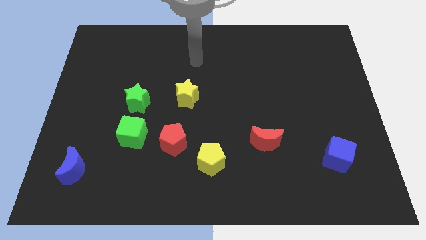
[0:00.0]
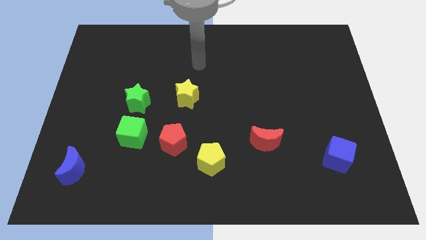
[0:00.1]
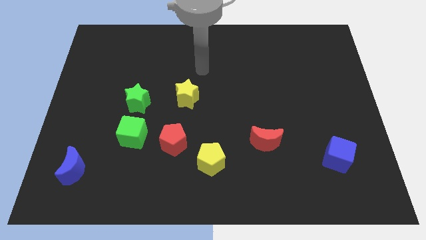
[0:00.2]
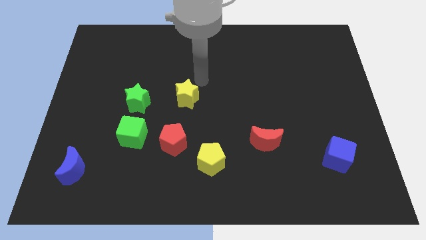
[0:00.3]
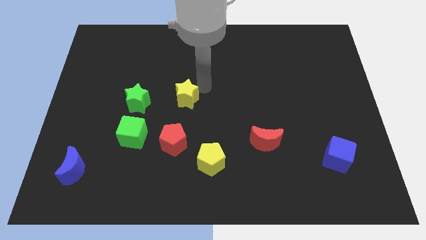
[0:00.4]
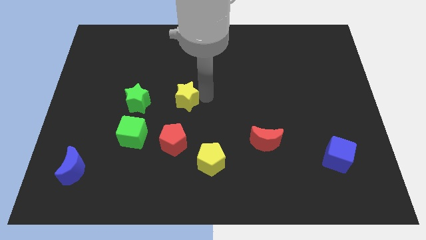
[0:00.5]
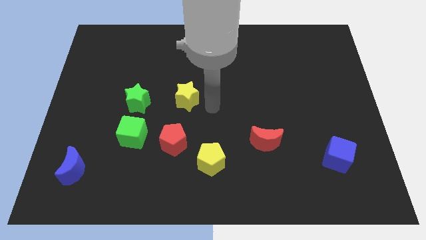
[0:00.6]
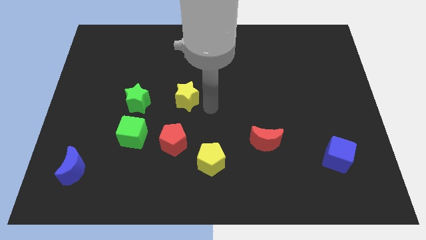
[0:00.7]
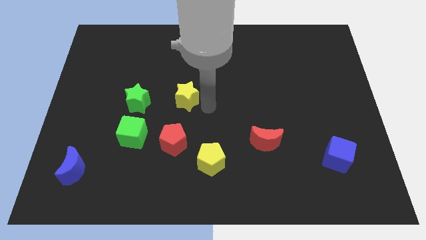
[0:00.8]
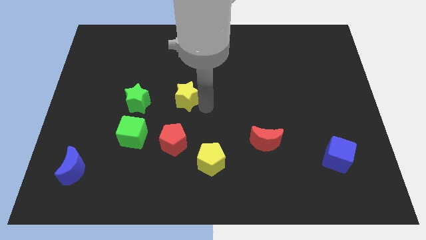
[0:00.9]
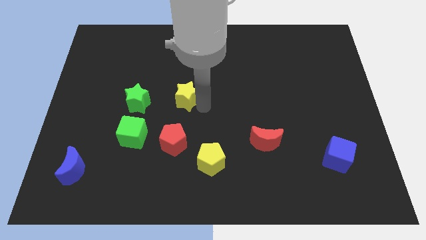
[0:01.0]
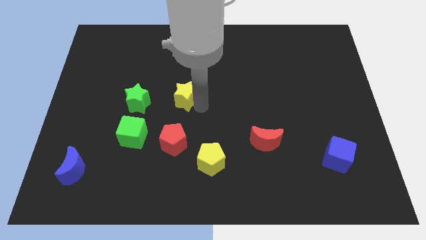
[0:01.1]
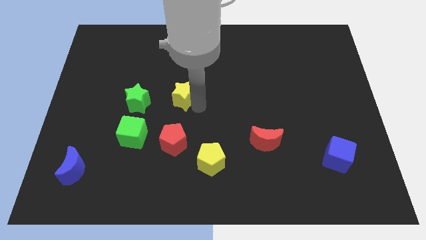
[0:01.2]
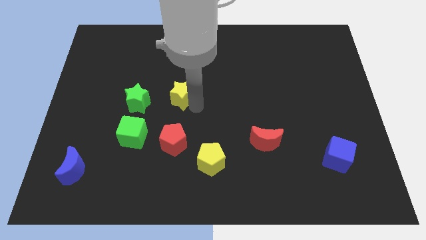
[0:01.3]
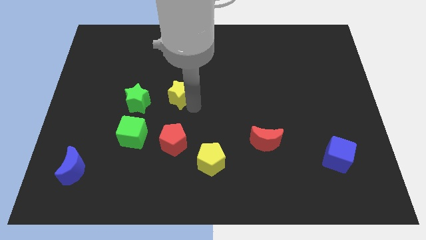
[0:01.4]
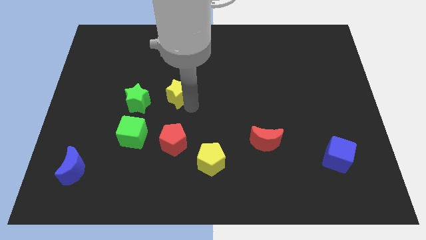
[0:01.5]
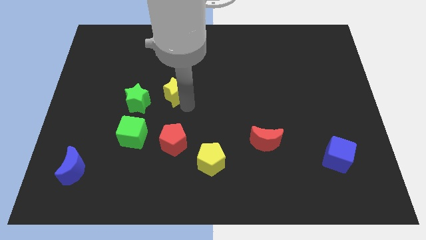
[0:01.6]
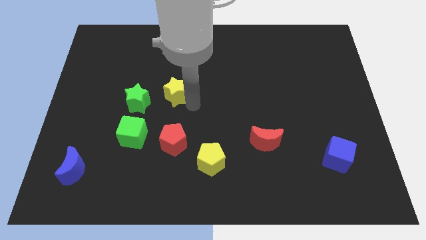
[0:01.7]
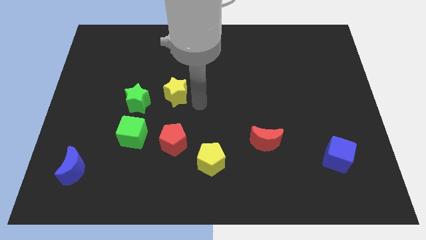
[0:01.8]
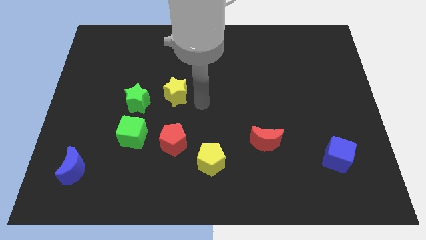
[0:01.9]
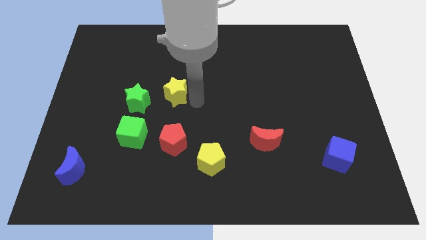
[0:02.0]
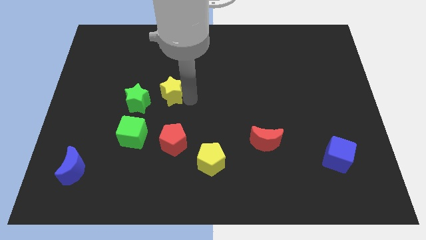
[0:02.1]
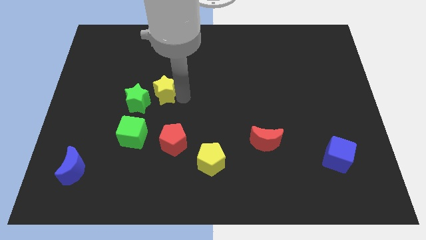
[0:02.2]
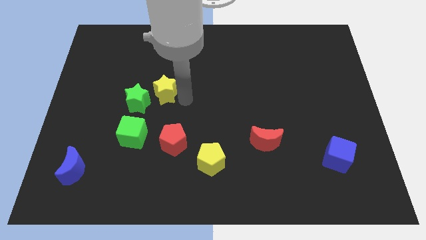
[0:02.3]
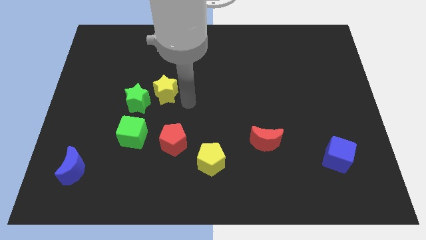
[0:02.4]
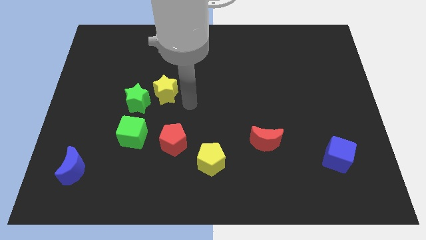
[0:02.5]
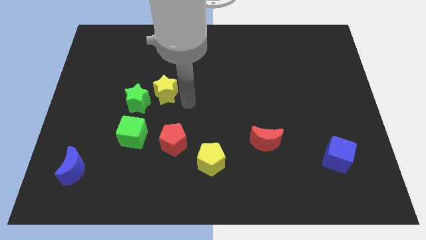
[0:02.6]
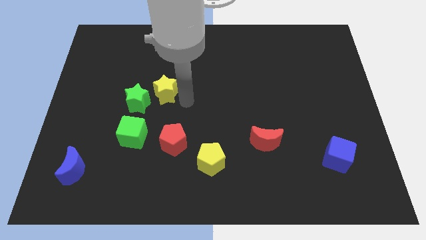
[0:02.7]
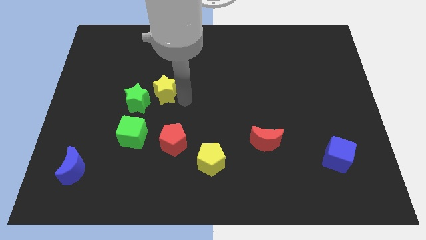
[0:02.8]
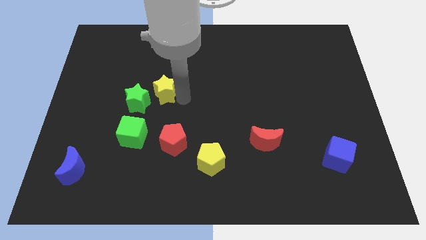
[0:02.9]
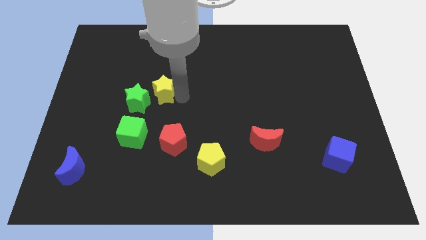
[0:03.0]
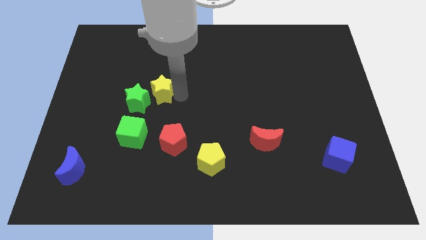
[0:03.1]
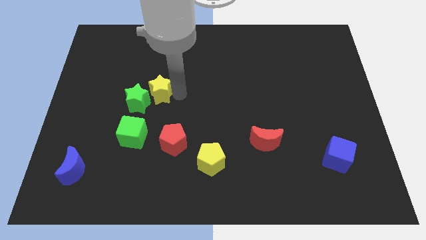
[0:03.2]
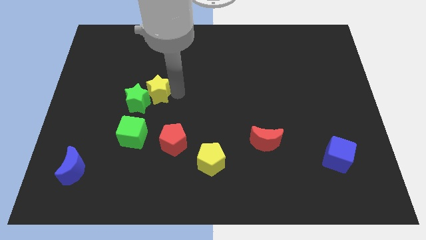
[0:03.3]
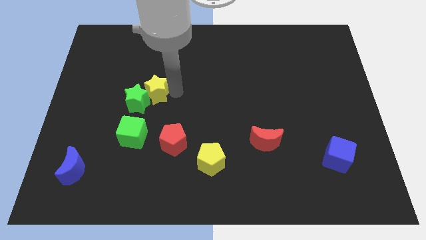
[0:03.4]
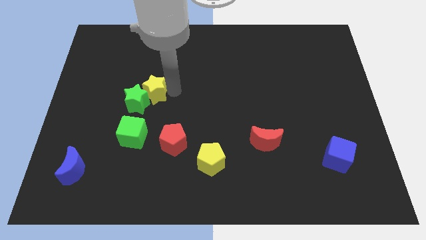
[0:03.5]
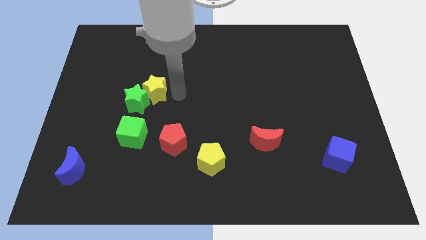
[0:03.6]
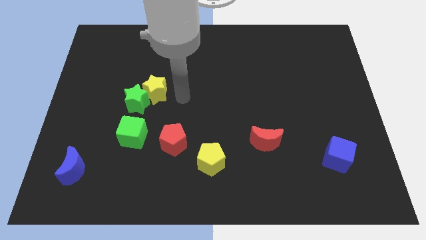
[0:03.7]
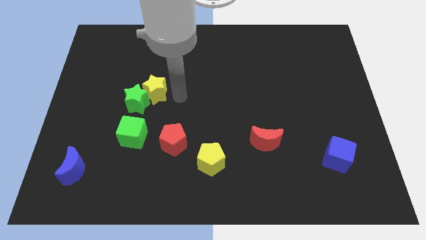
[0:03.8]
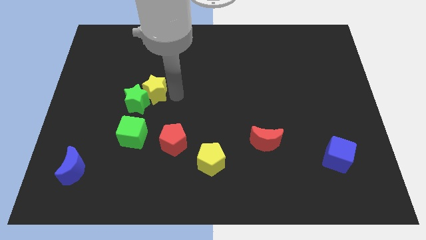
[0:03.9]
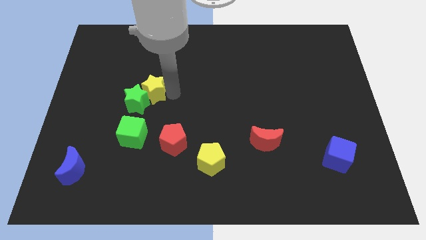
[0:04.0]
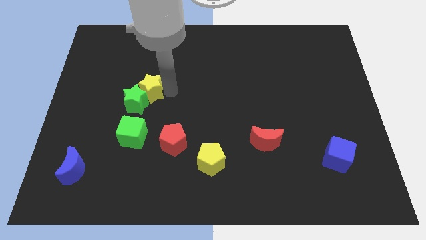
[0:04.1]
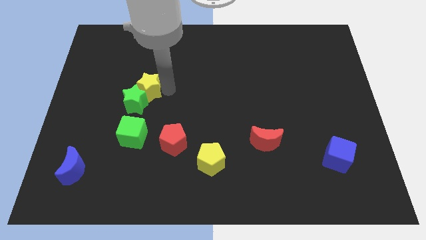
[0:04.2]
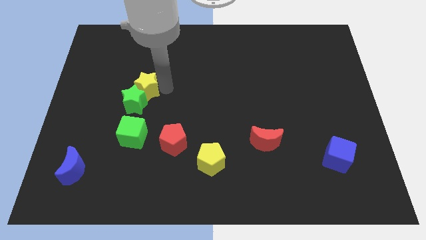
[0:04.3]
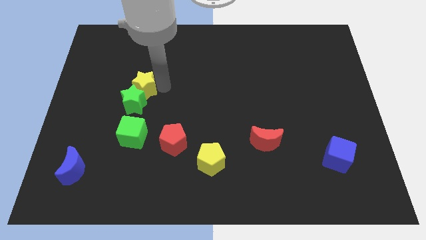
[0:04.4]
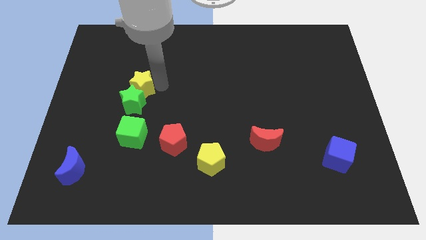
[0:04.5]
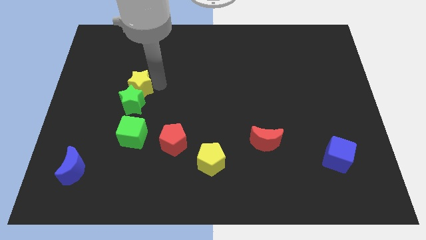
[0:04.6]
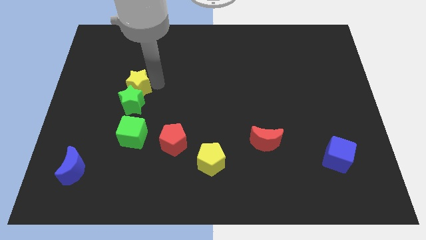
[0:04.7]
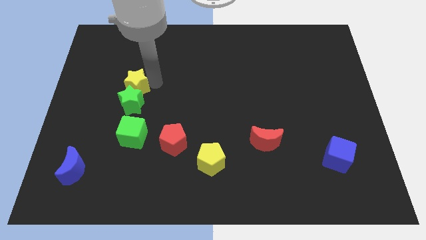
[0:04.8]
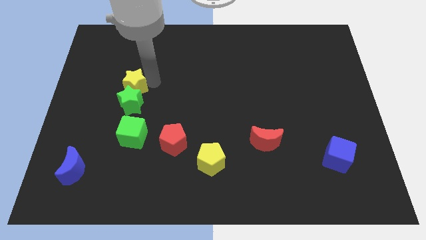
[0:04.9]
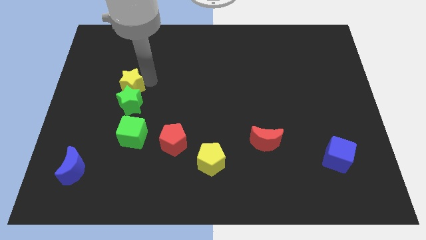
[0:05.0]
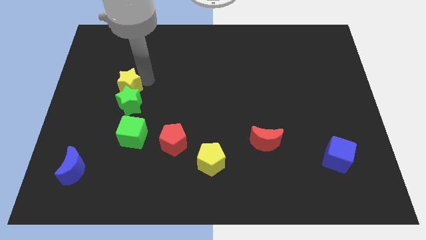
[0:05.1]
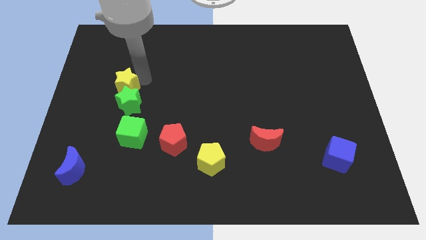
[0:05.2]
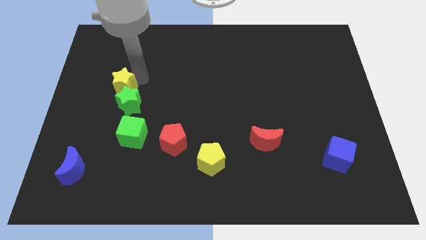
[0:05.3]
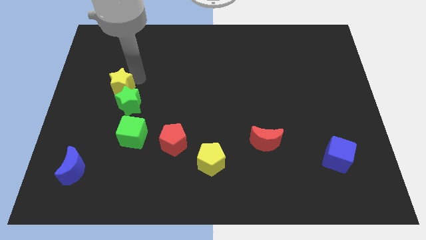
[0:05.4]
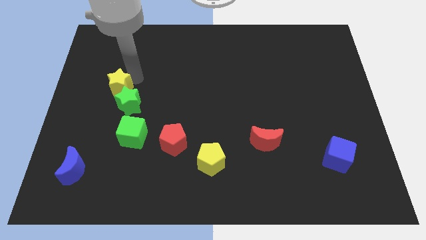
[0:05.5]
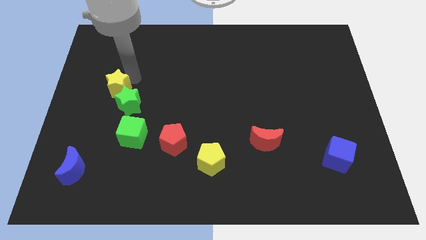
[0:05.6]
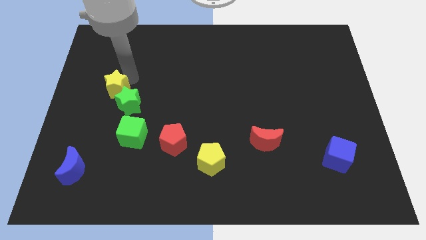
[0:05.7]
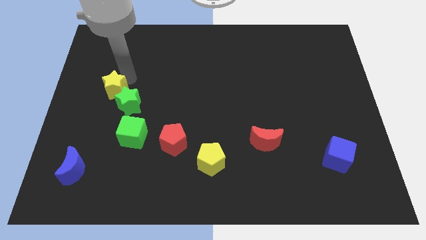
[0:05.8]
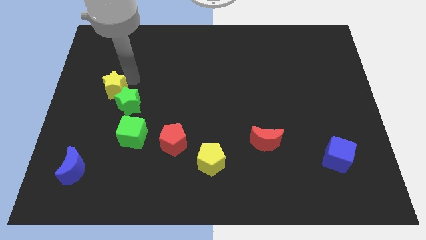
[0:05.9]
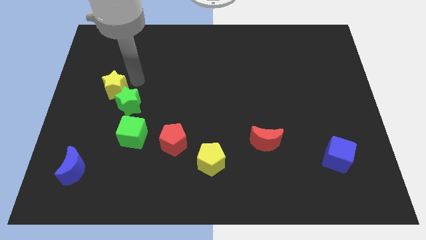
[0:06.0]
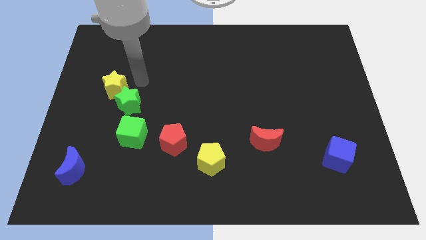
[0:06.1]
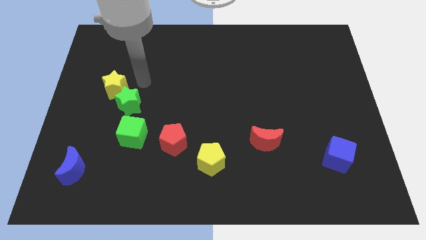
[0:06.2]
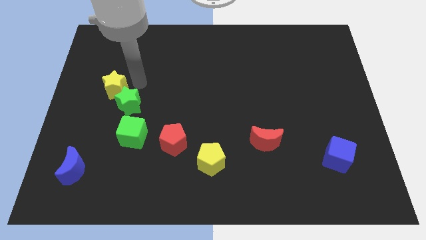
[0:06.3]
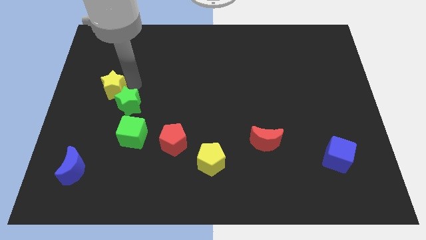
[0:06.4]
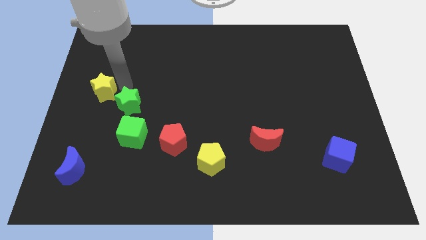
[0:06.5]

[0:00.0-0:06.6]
move the yellow star to the center left
